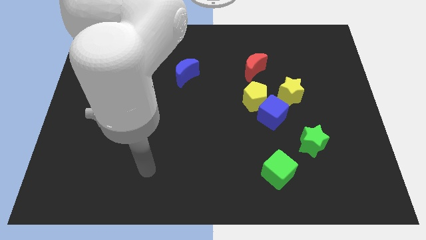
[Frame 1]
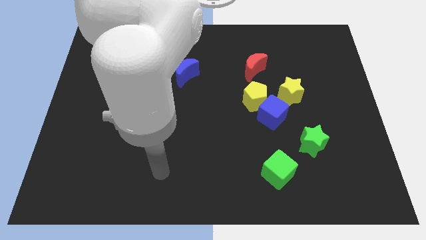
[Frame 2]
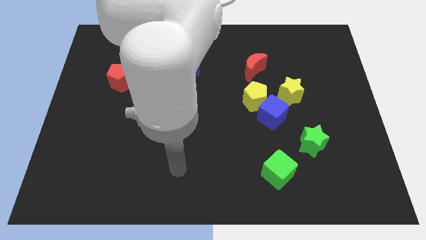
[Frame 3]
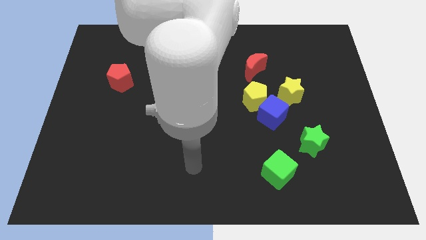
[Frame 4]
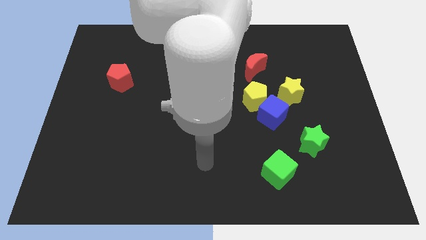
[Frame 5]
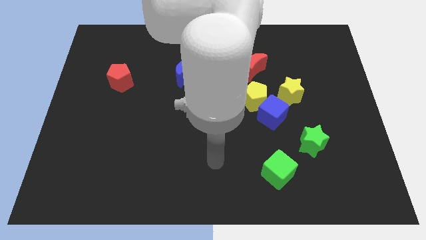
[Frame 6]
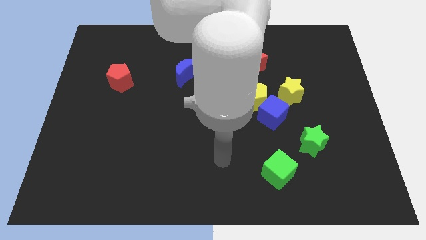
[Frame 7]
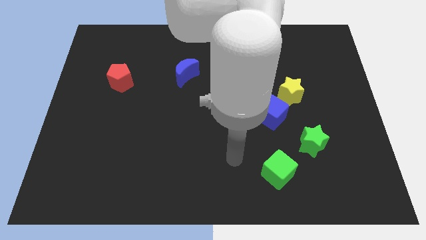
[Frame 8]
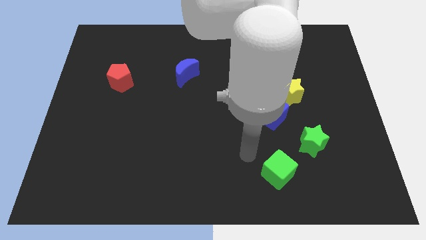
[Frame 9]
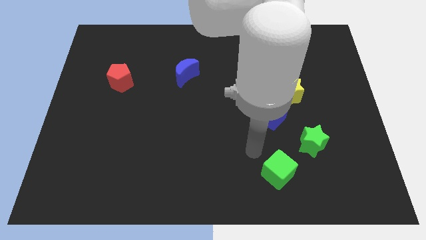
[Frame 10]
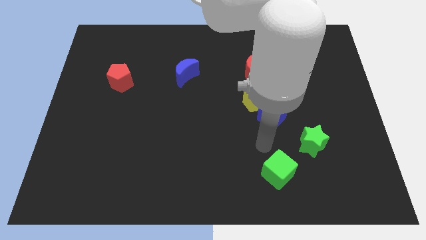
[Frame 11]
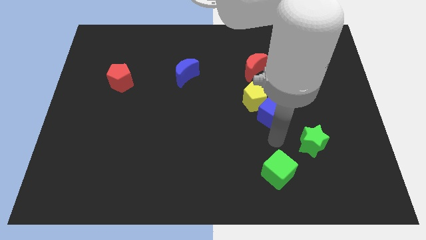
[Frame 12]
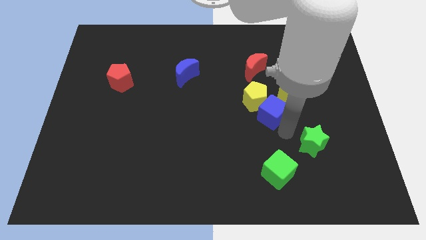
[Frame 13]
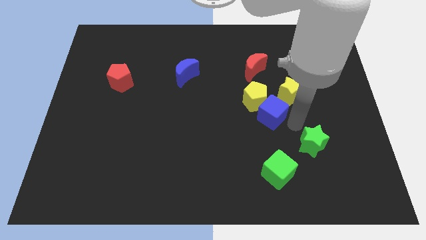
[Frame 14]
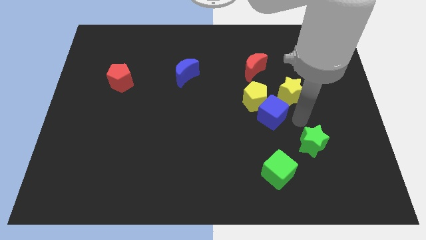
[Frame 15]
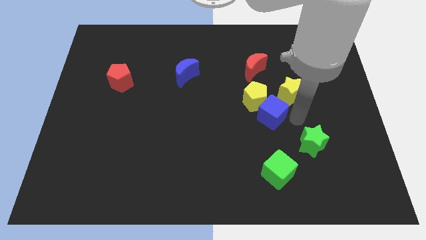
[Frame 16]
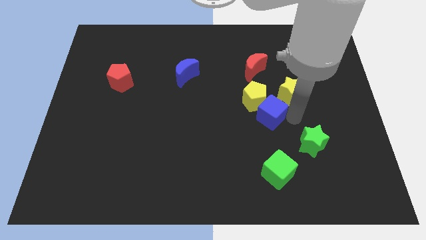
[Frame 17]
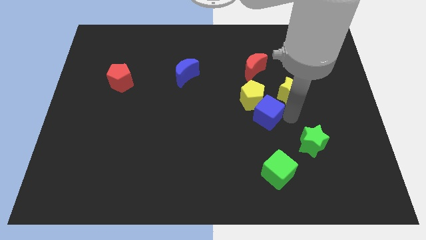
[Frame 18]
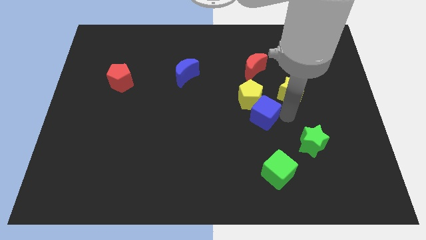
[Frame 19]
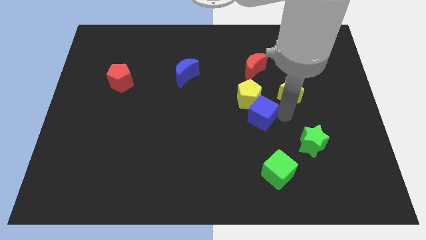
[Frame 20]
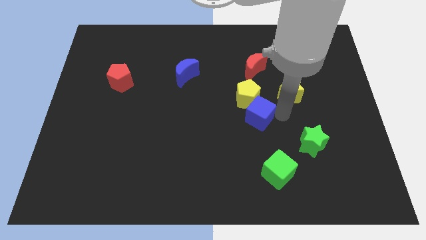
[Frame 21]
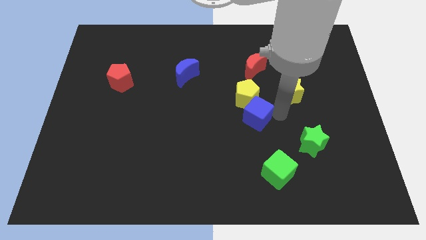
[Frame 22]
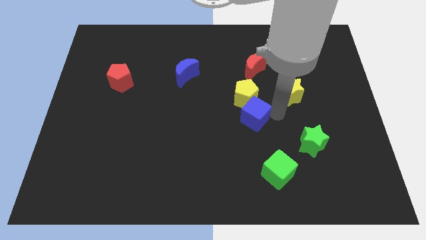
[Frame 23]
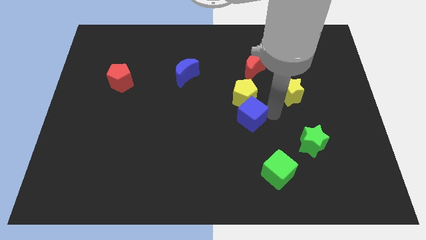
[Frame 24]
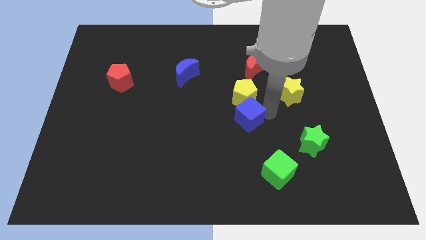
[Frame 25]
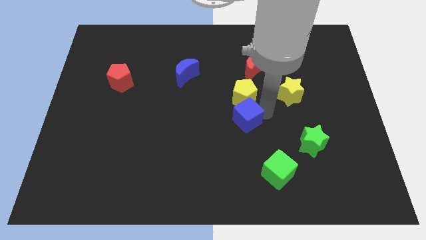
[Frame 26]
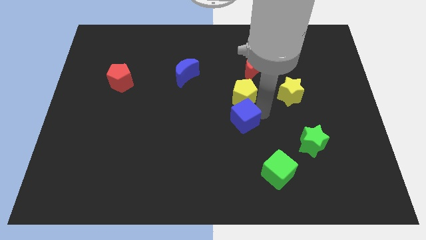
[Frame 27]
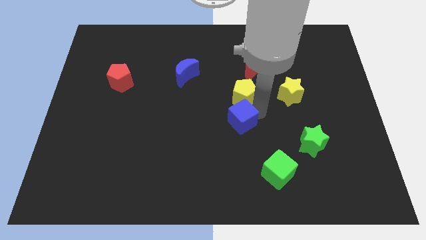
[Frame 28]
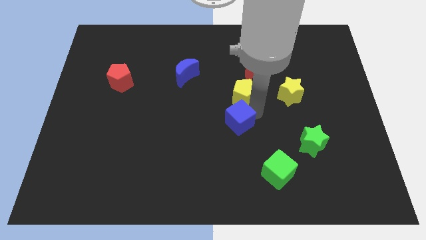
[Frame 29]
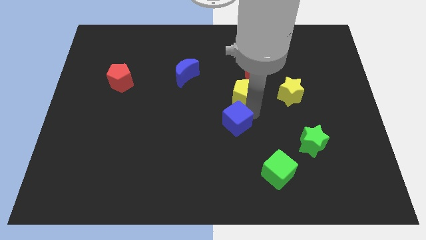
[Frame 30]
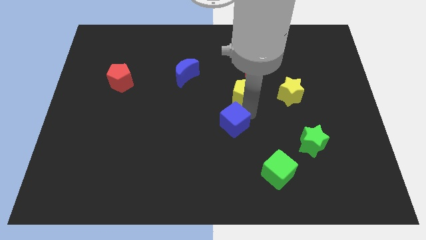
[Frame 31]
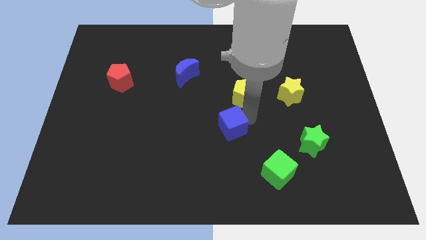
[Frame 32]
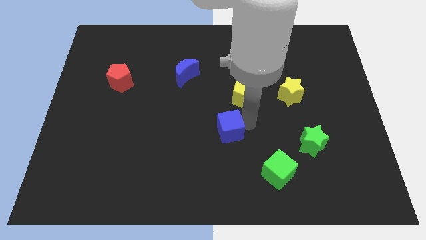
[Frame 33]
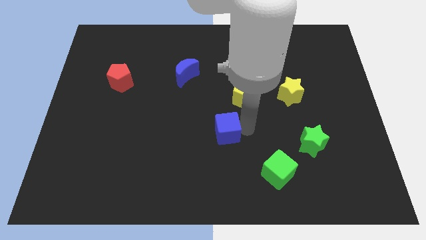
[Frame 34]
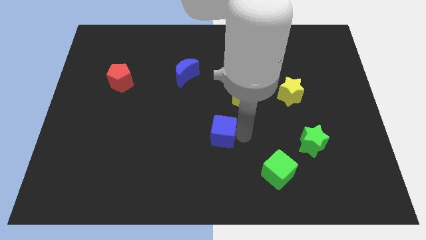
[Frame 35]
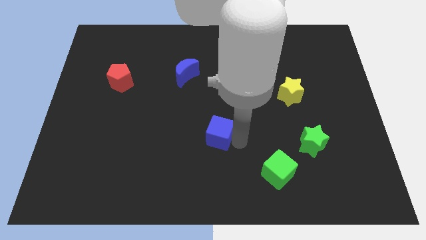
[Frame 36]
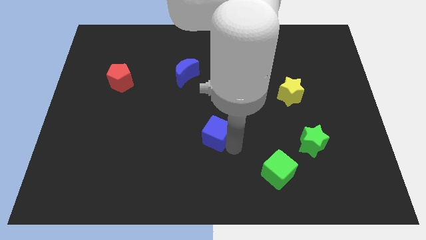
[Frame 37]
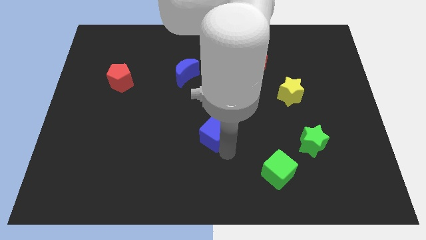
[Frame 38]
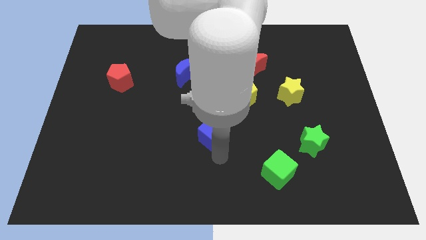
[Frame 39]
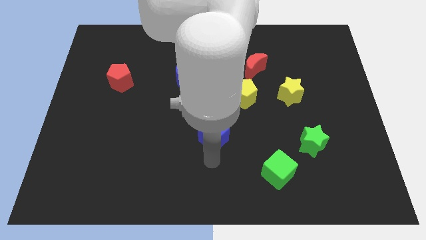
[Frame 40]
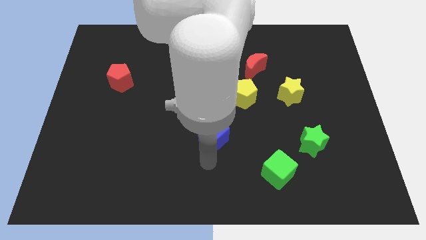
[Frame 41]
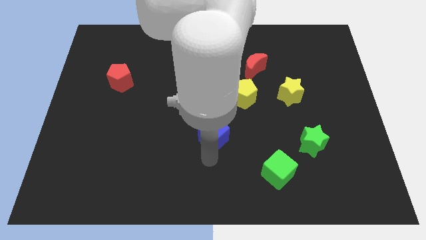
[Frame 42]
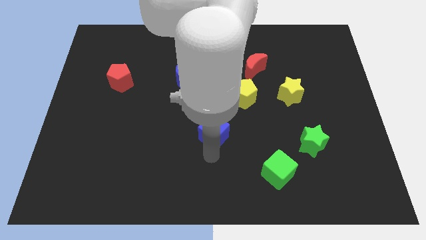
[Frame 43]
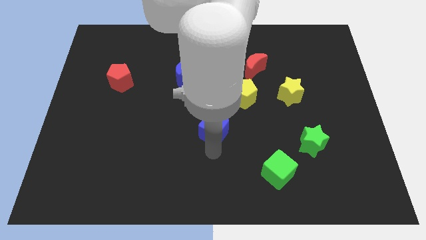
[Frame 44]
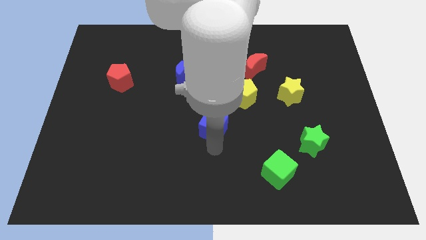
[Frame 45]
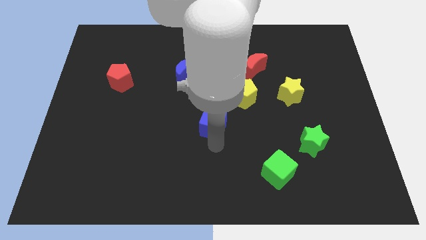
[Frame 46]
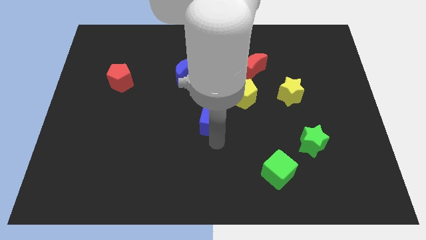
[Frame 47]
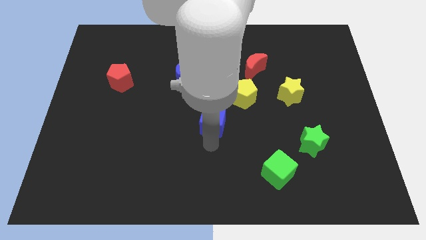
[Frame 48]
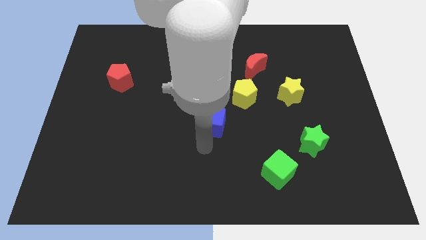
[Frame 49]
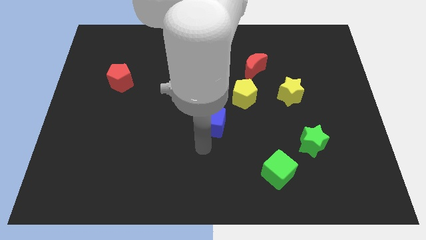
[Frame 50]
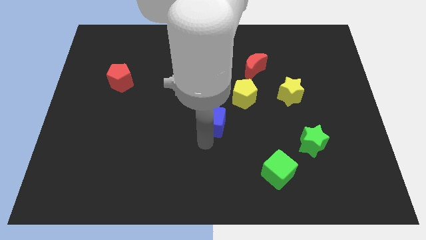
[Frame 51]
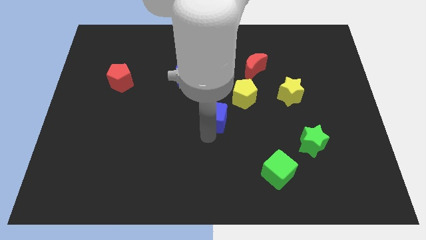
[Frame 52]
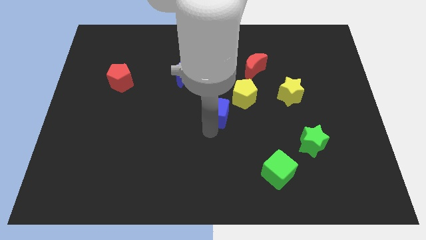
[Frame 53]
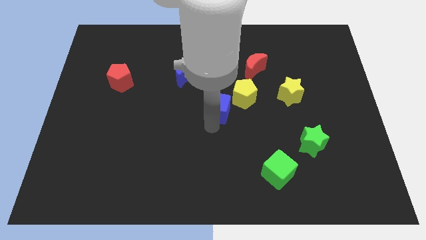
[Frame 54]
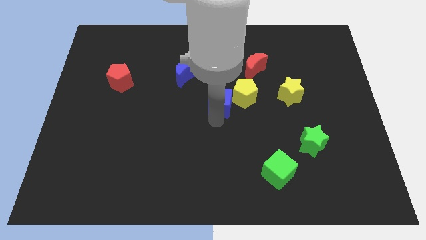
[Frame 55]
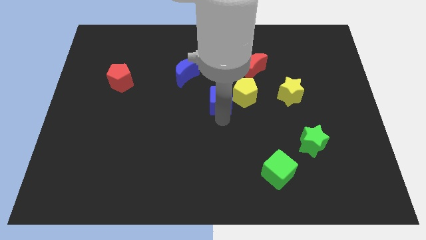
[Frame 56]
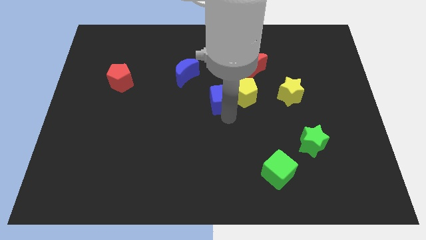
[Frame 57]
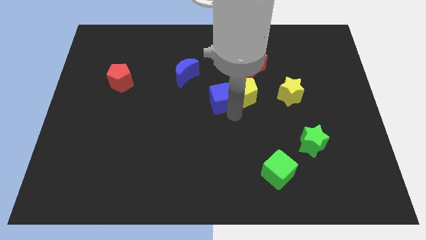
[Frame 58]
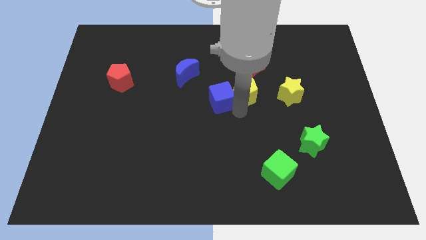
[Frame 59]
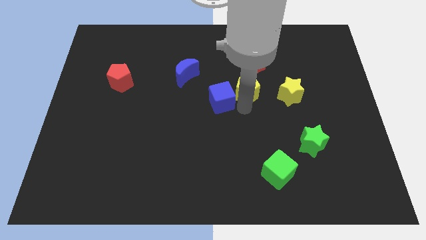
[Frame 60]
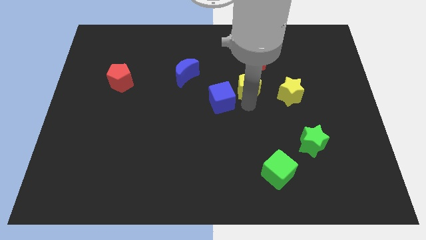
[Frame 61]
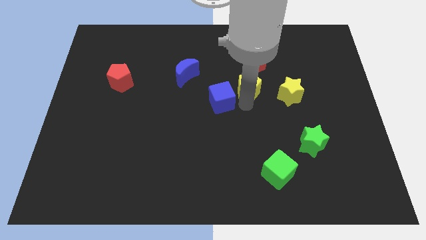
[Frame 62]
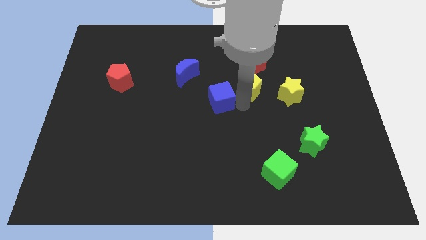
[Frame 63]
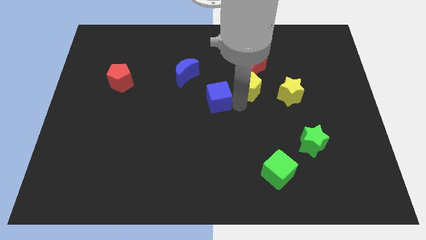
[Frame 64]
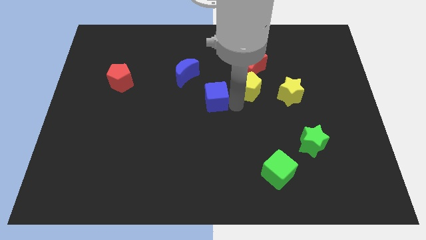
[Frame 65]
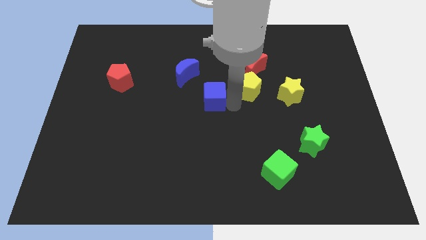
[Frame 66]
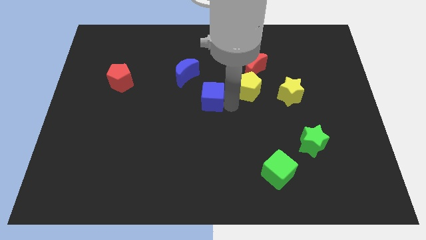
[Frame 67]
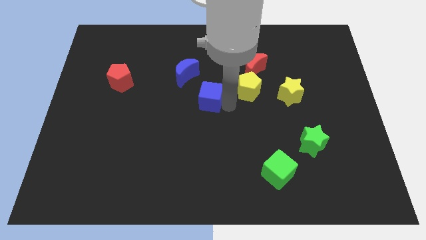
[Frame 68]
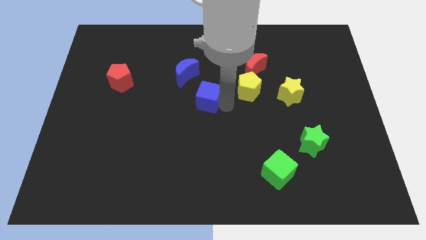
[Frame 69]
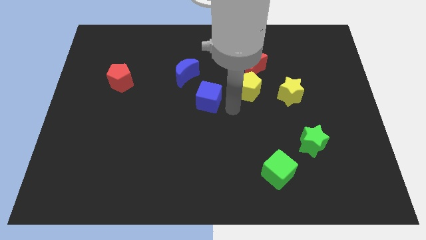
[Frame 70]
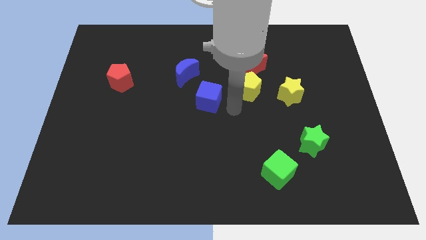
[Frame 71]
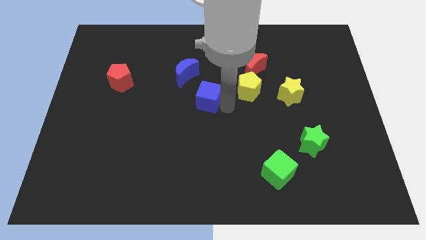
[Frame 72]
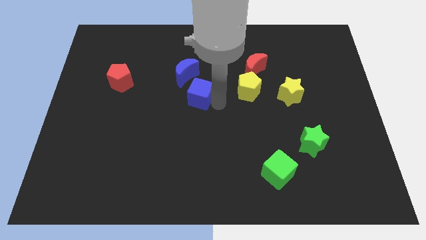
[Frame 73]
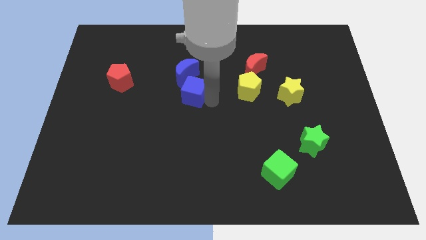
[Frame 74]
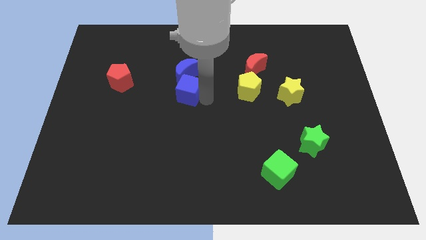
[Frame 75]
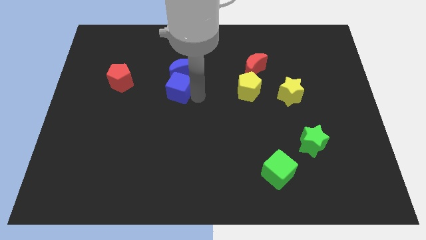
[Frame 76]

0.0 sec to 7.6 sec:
push the blue cube to the right of the red pentagon
